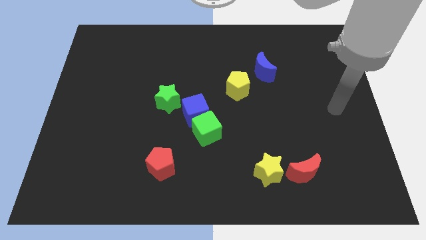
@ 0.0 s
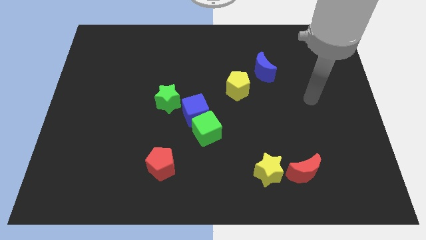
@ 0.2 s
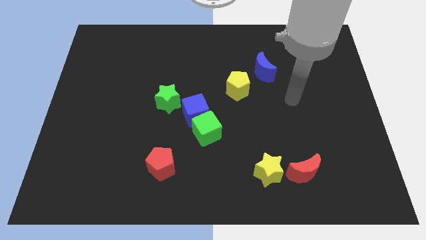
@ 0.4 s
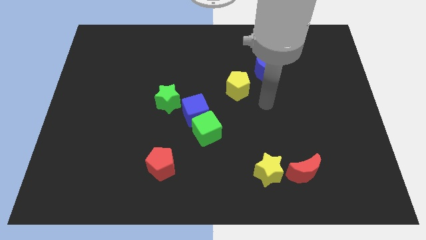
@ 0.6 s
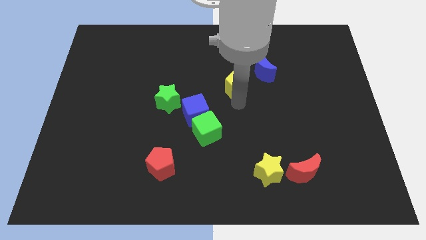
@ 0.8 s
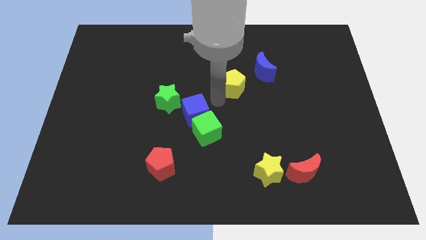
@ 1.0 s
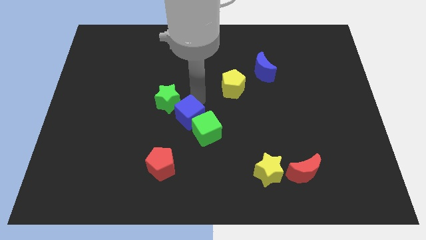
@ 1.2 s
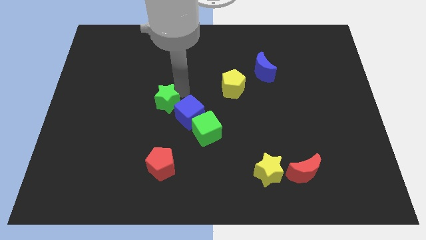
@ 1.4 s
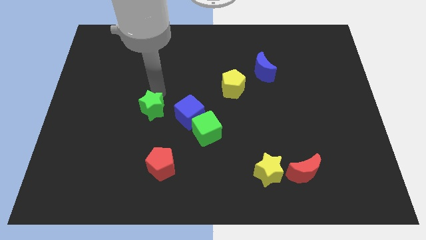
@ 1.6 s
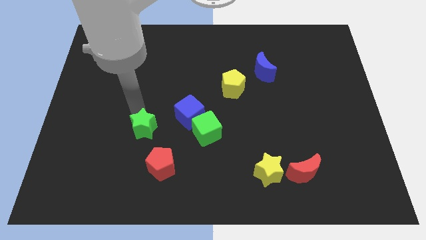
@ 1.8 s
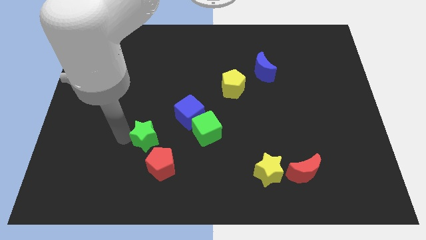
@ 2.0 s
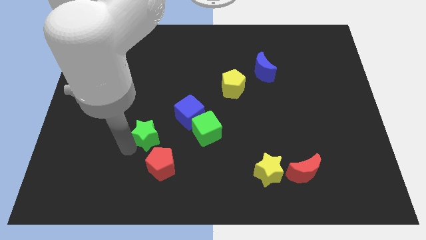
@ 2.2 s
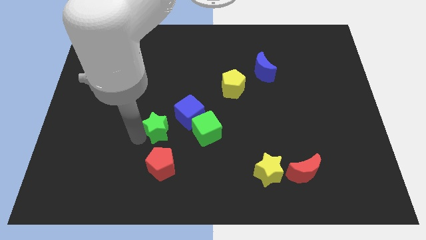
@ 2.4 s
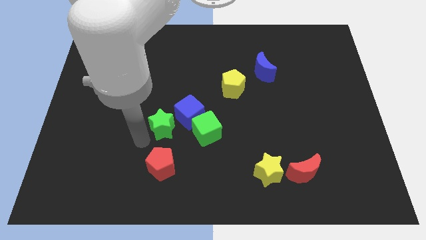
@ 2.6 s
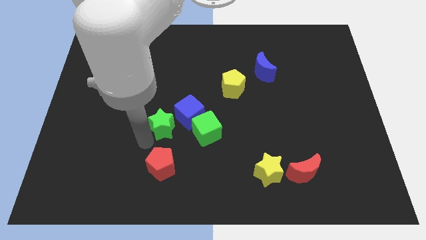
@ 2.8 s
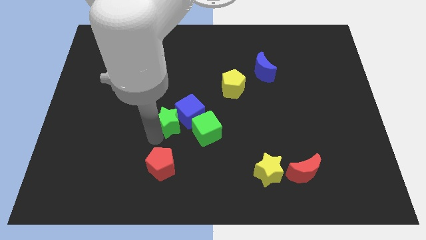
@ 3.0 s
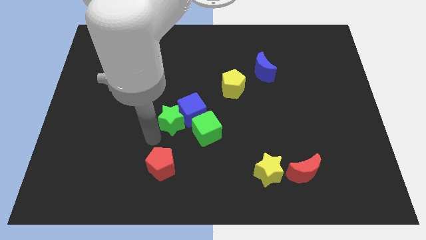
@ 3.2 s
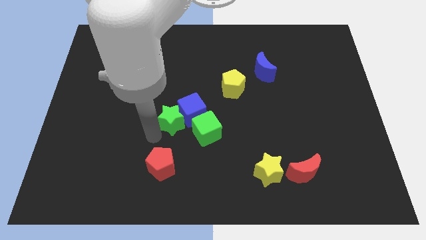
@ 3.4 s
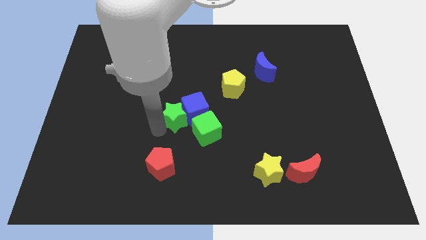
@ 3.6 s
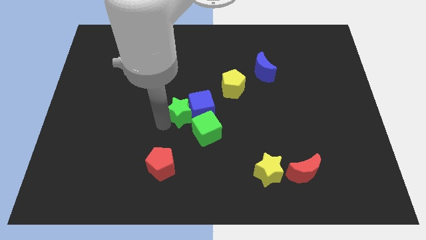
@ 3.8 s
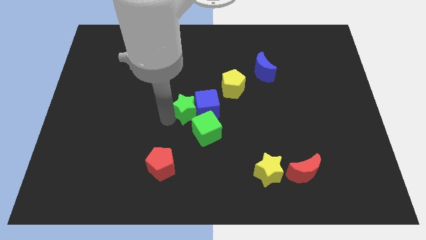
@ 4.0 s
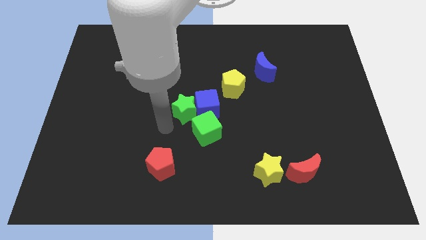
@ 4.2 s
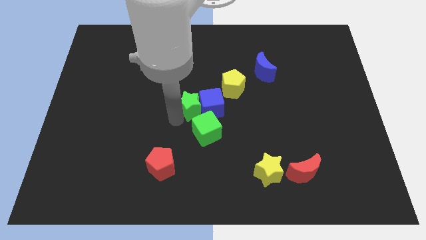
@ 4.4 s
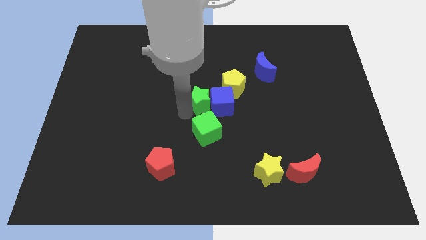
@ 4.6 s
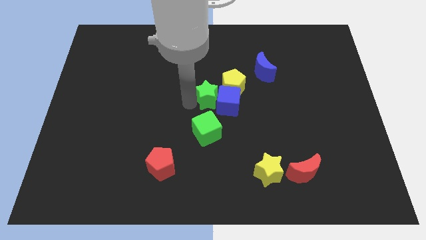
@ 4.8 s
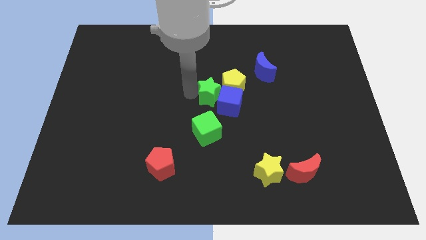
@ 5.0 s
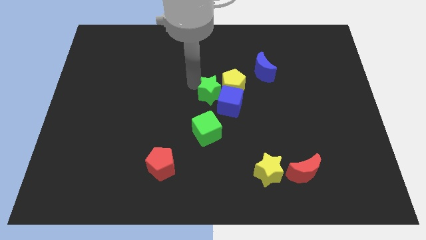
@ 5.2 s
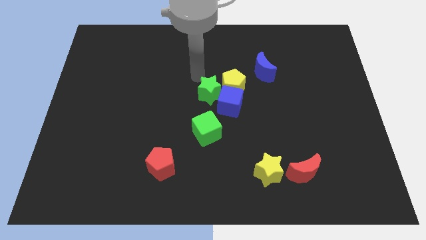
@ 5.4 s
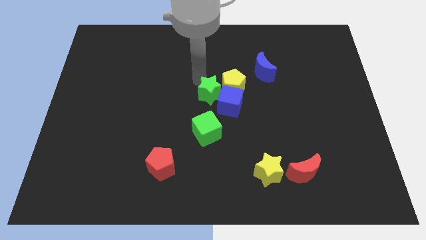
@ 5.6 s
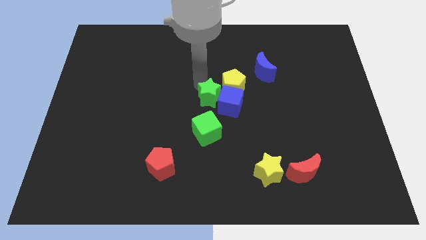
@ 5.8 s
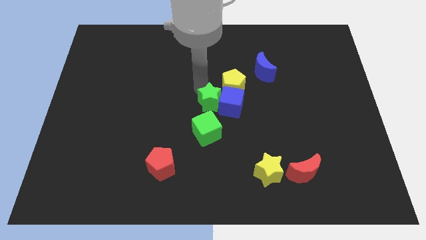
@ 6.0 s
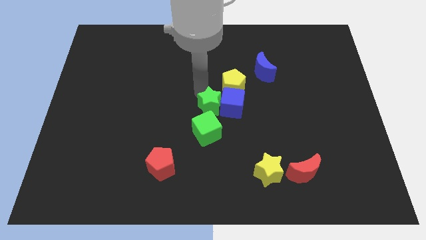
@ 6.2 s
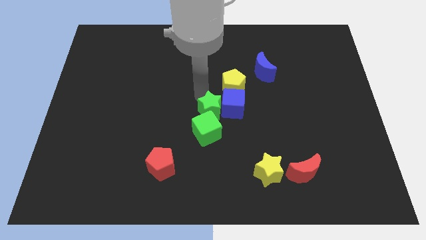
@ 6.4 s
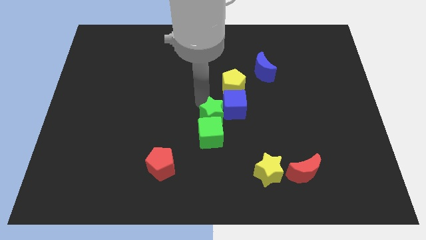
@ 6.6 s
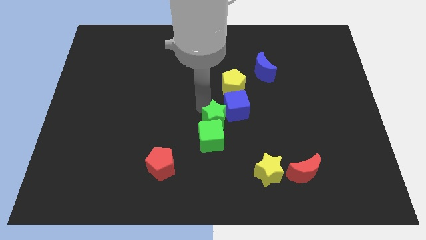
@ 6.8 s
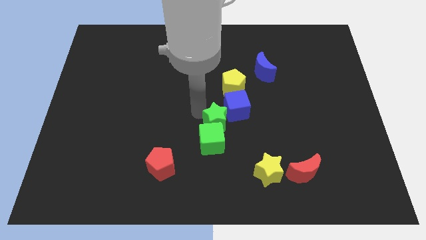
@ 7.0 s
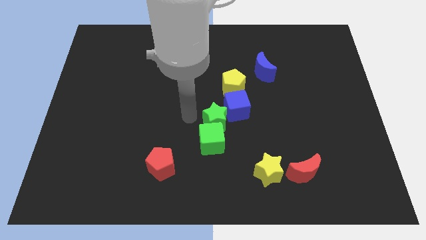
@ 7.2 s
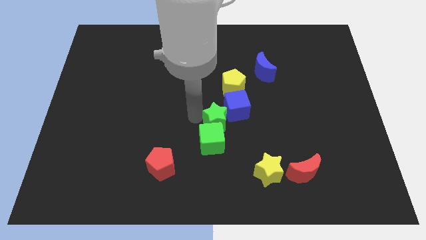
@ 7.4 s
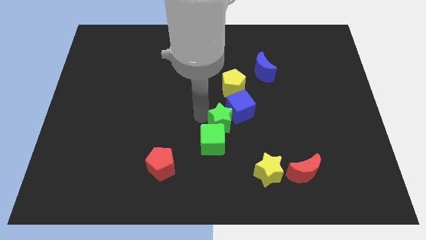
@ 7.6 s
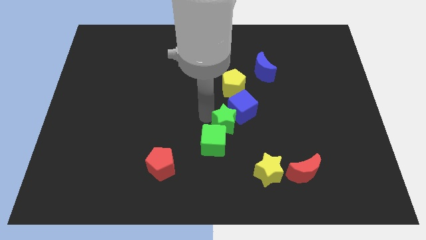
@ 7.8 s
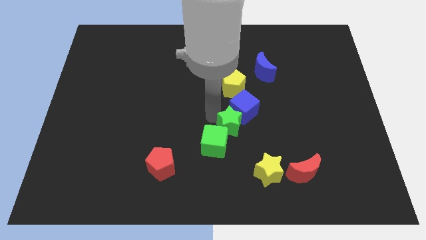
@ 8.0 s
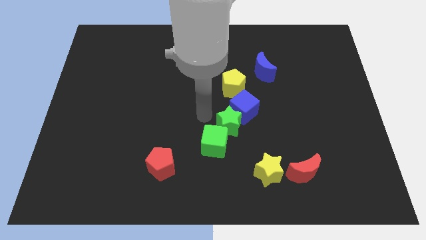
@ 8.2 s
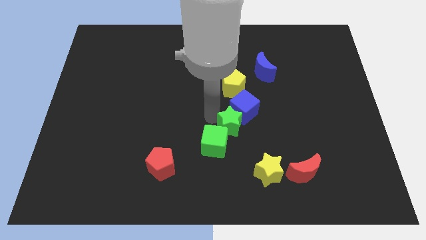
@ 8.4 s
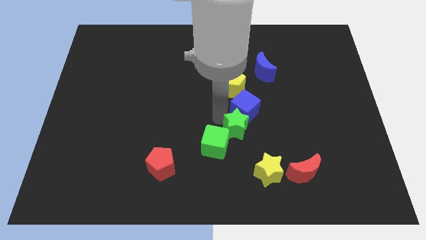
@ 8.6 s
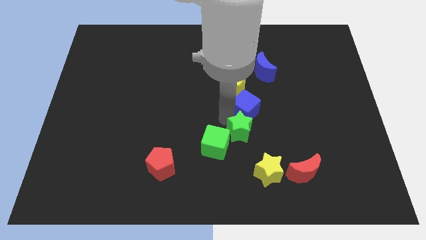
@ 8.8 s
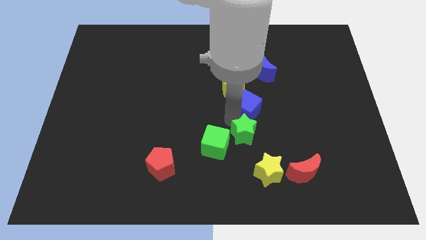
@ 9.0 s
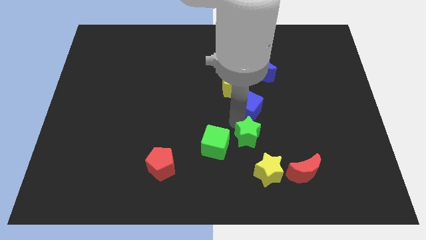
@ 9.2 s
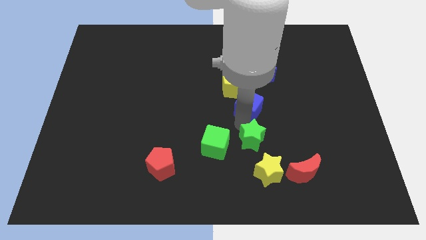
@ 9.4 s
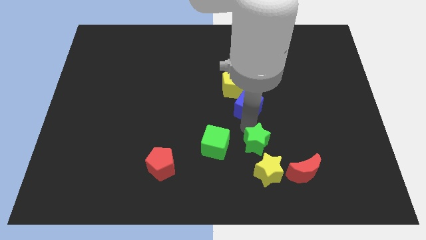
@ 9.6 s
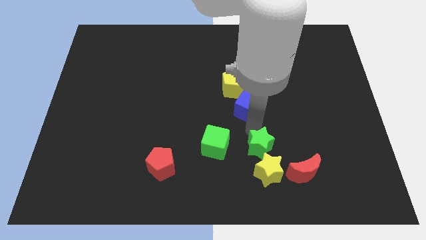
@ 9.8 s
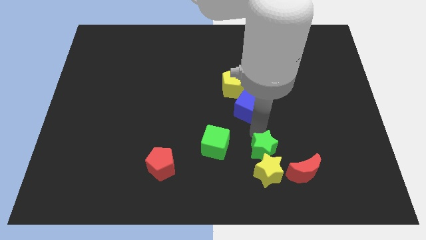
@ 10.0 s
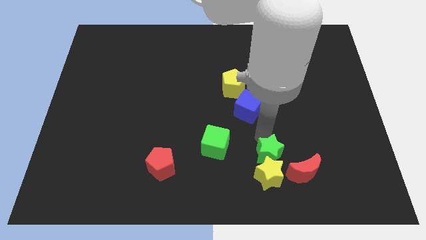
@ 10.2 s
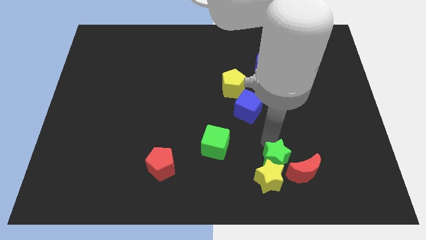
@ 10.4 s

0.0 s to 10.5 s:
slide the green star to the red moon

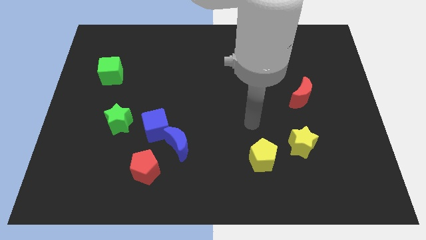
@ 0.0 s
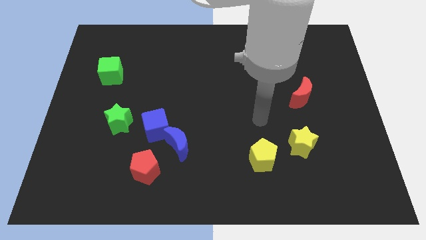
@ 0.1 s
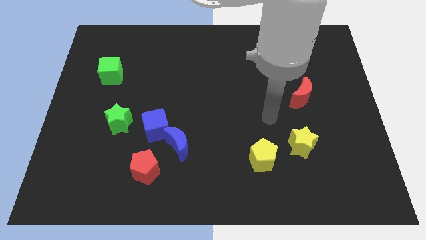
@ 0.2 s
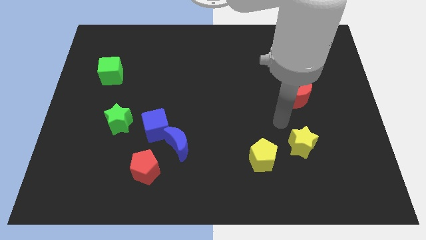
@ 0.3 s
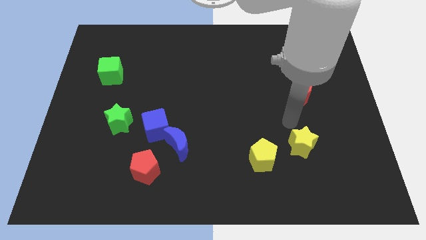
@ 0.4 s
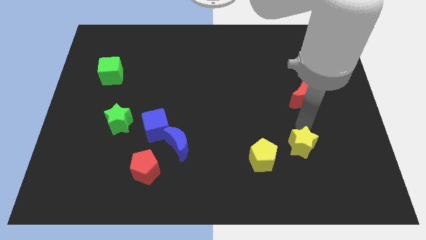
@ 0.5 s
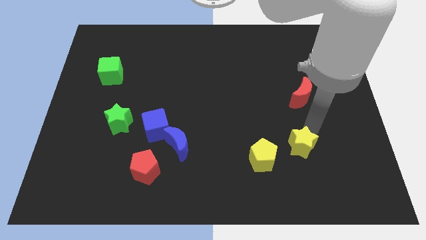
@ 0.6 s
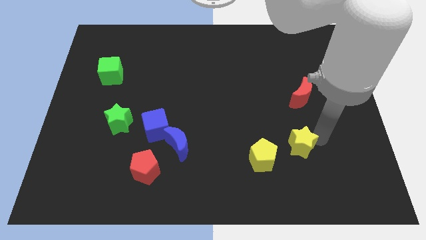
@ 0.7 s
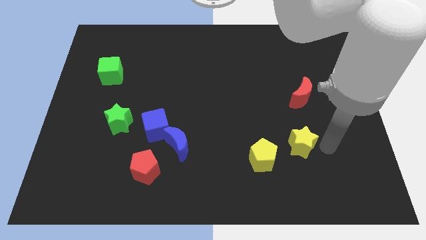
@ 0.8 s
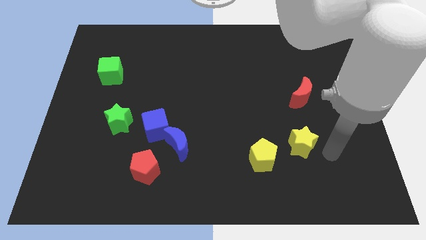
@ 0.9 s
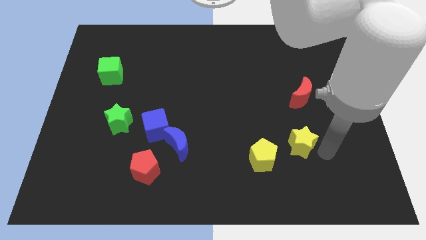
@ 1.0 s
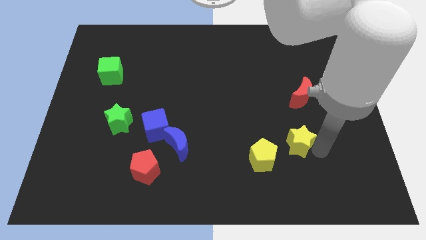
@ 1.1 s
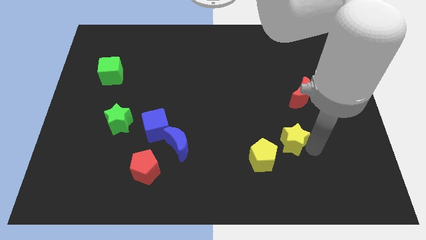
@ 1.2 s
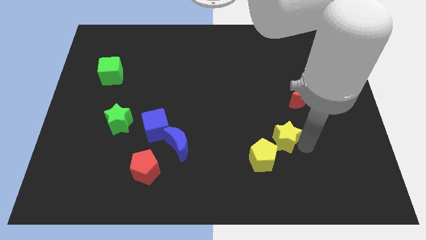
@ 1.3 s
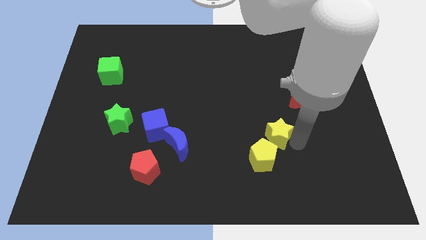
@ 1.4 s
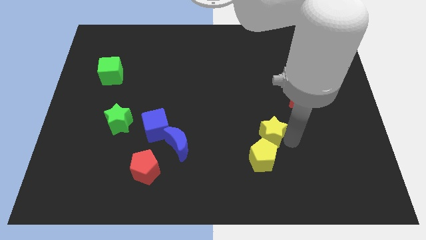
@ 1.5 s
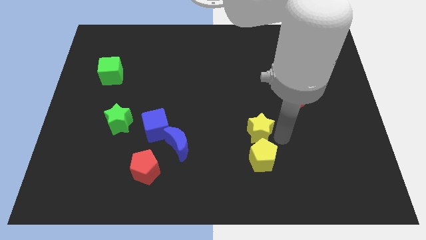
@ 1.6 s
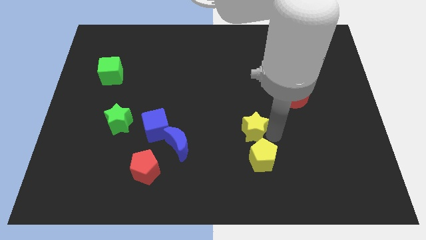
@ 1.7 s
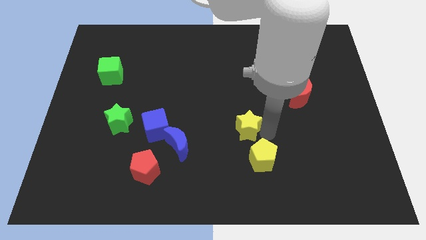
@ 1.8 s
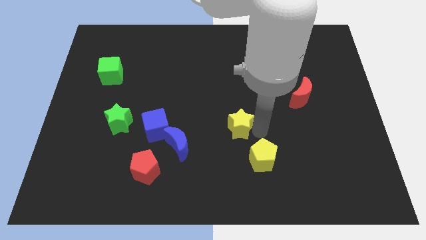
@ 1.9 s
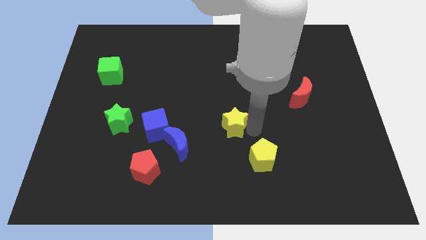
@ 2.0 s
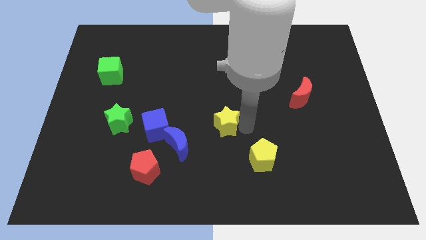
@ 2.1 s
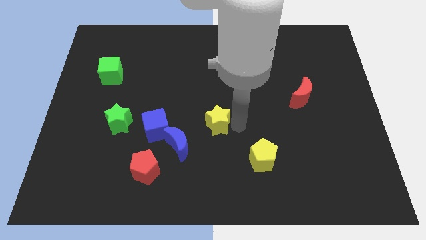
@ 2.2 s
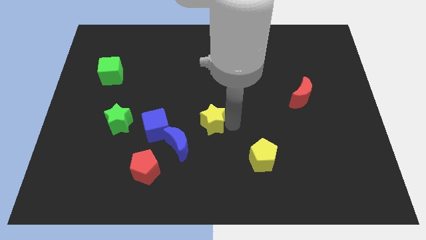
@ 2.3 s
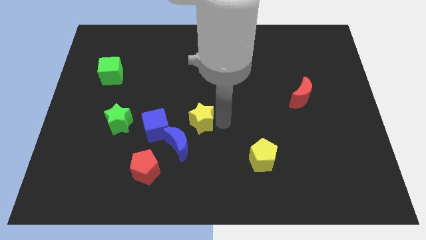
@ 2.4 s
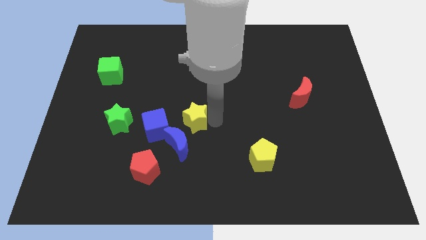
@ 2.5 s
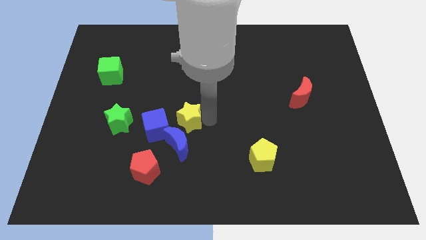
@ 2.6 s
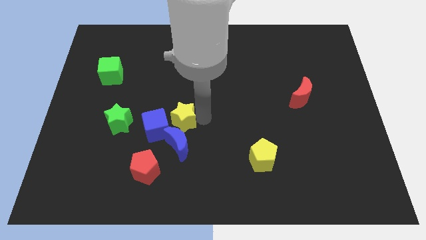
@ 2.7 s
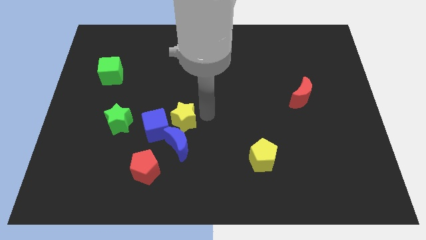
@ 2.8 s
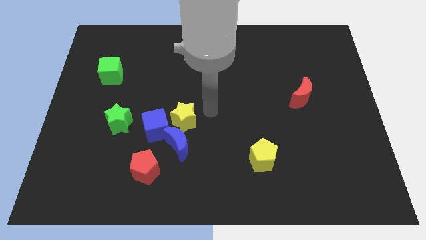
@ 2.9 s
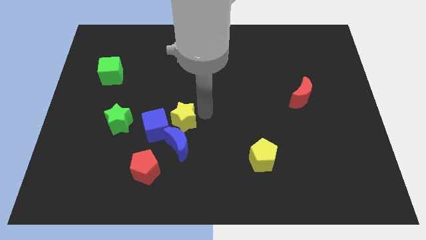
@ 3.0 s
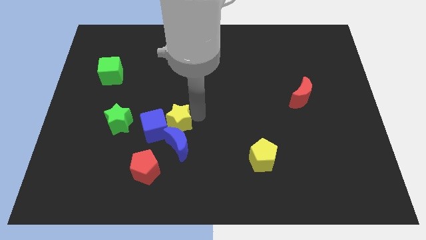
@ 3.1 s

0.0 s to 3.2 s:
slide the yellow star close to the blue cube
